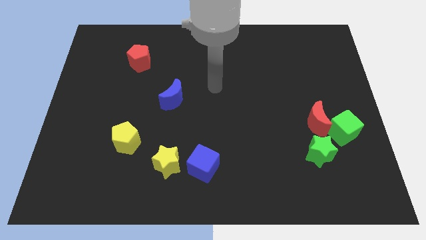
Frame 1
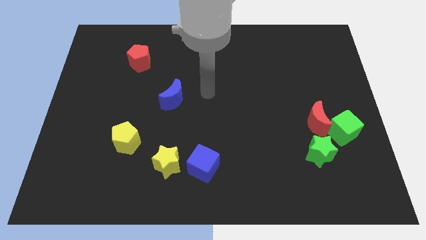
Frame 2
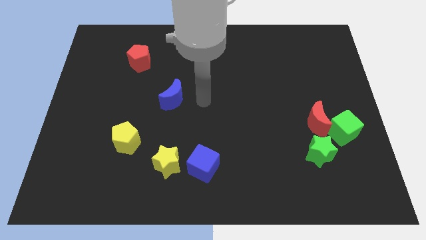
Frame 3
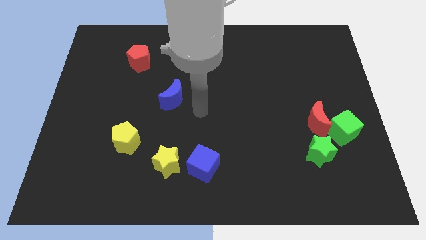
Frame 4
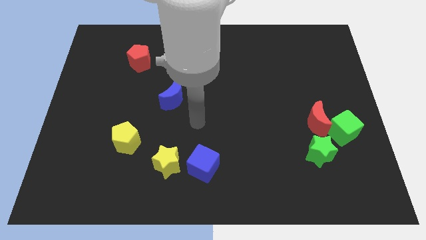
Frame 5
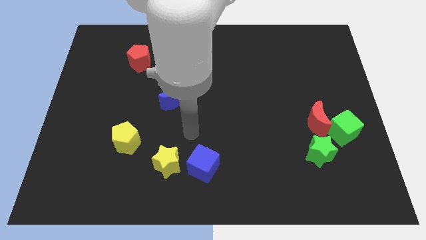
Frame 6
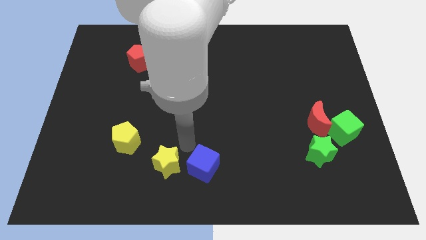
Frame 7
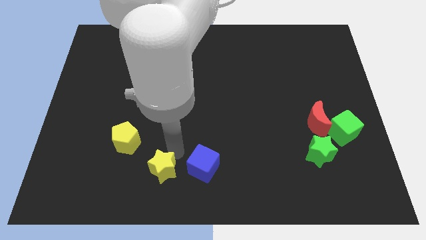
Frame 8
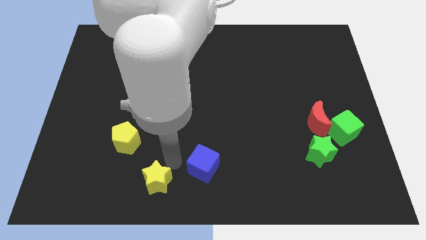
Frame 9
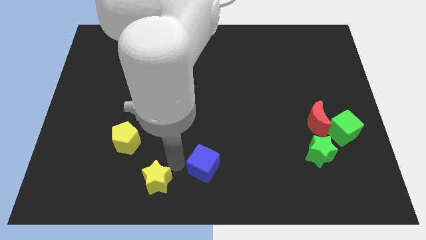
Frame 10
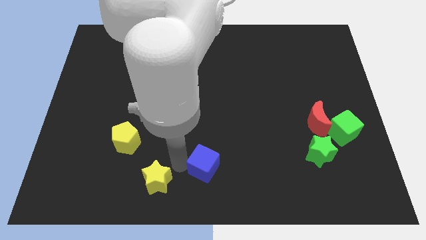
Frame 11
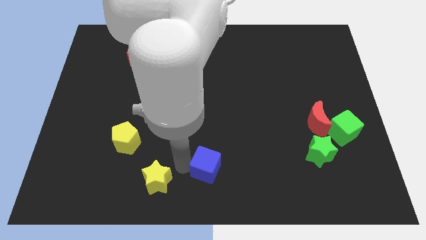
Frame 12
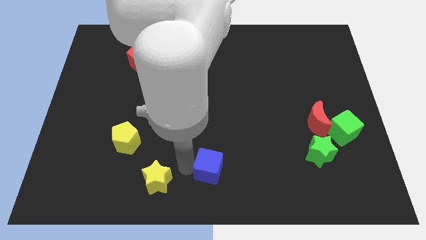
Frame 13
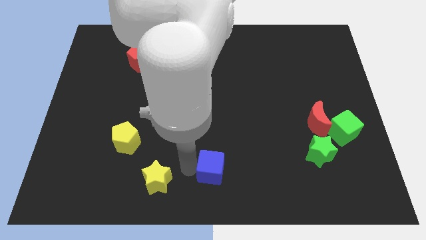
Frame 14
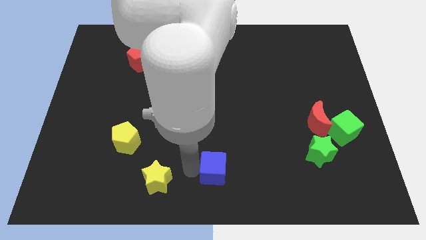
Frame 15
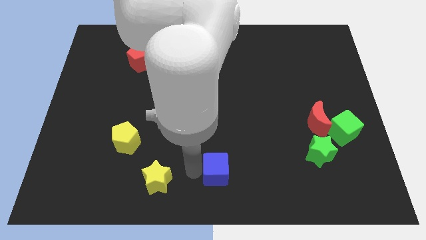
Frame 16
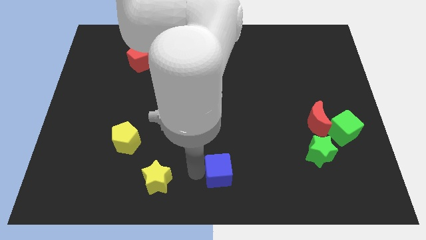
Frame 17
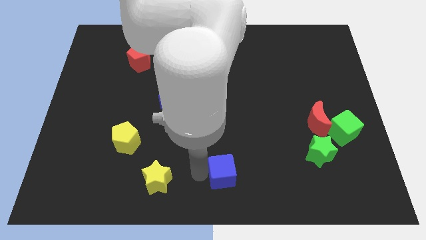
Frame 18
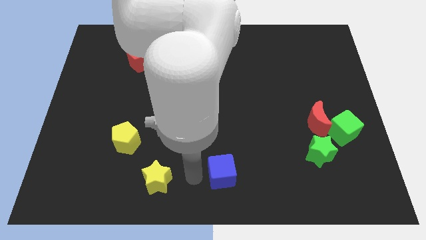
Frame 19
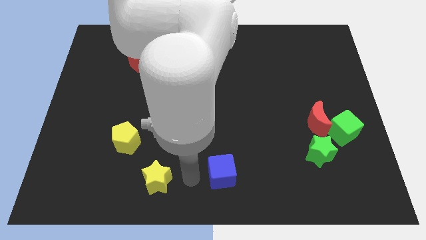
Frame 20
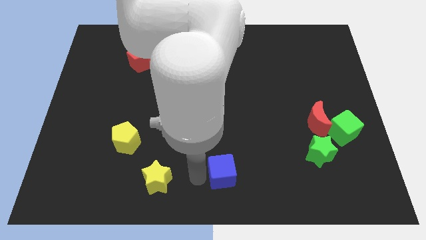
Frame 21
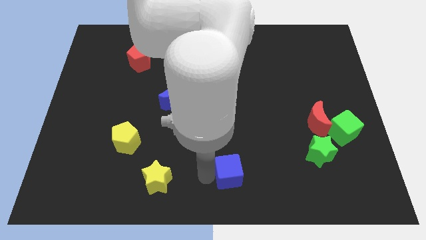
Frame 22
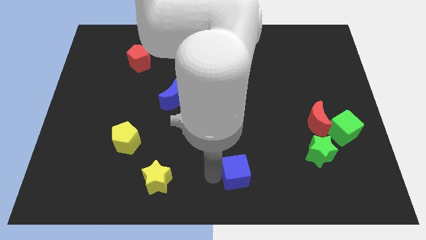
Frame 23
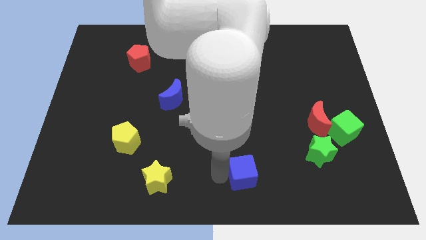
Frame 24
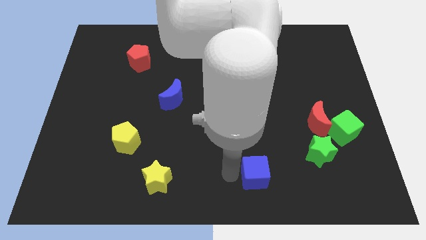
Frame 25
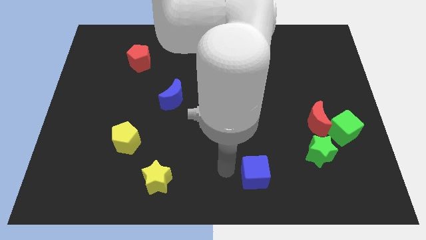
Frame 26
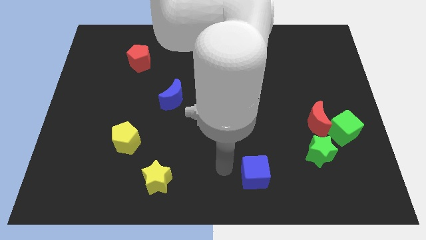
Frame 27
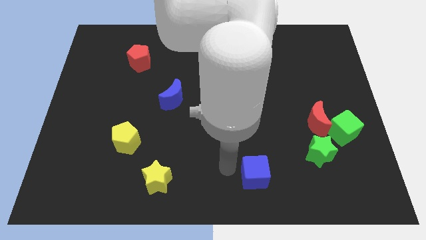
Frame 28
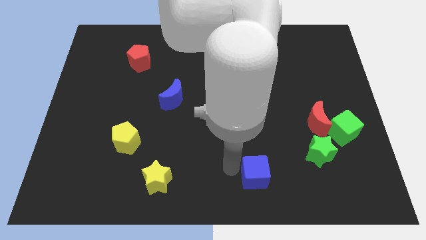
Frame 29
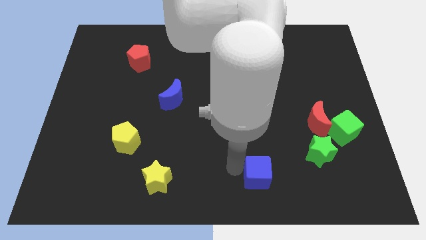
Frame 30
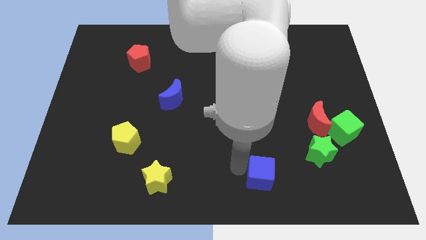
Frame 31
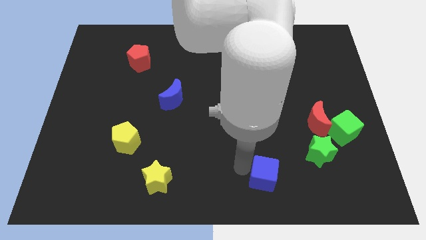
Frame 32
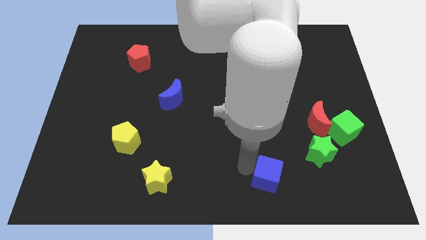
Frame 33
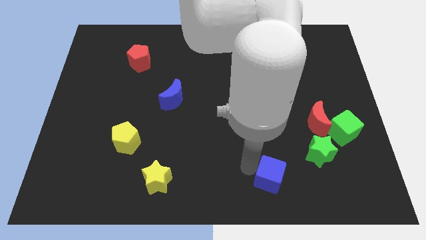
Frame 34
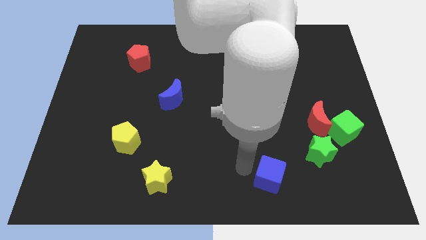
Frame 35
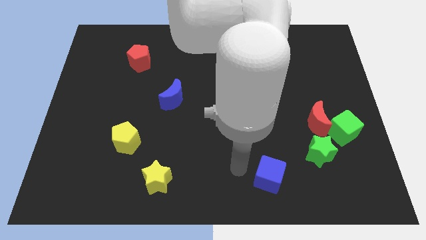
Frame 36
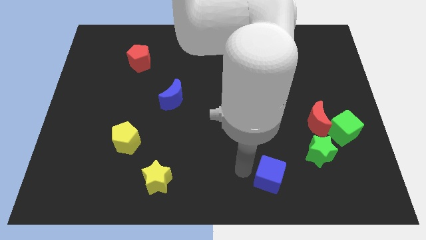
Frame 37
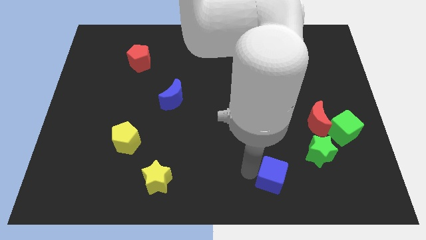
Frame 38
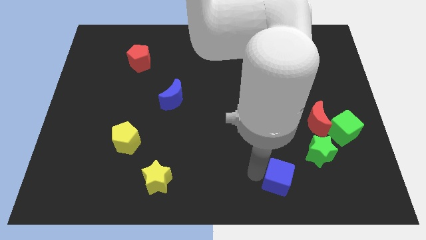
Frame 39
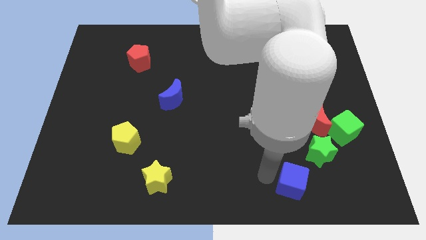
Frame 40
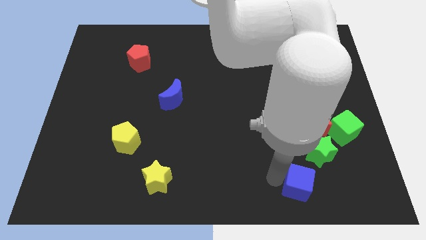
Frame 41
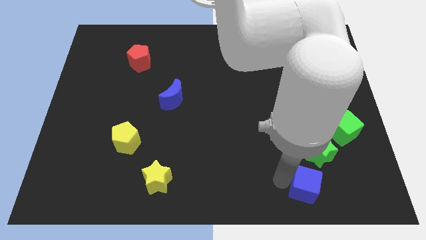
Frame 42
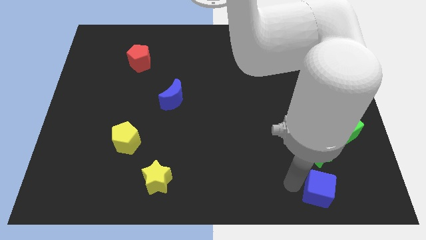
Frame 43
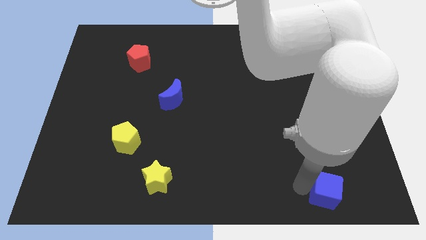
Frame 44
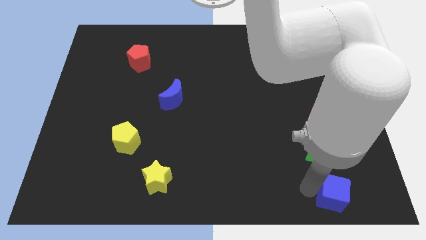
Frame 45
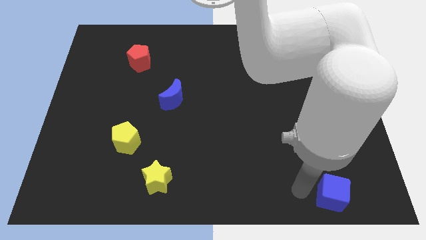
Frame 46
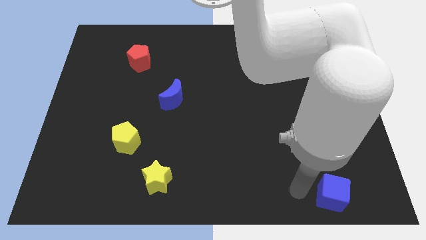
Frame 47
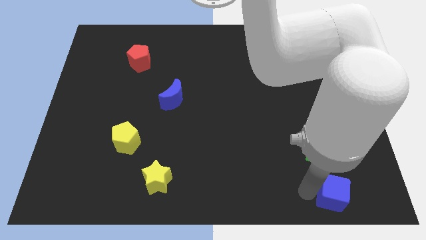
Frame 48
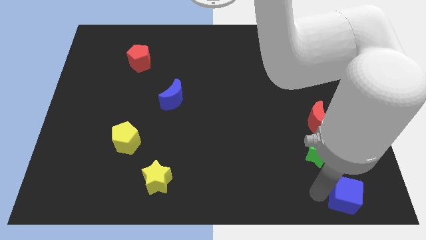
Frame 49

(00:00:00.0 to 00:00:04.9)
slide the blue cube to the bottom right of the board

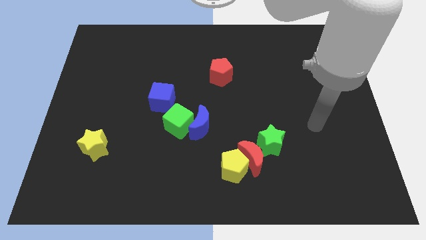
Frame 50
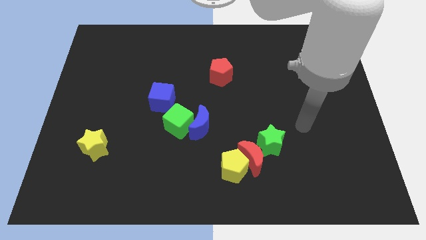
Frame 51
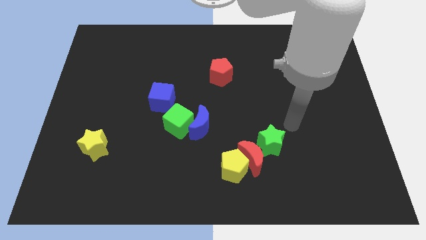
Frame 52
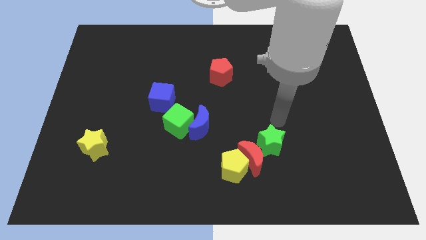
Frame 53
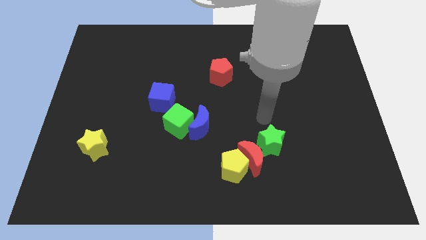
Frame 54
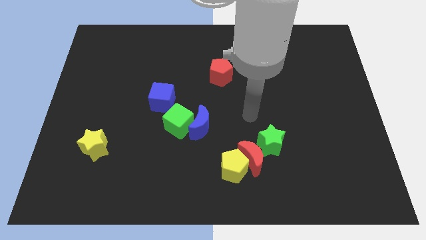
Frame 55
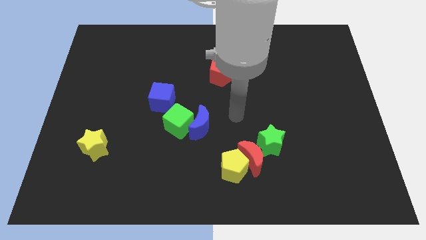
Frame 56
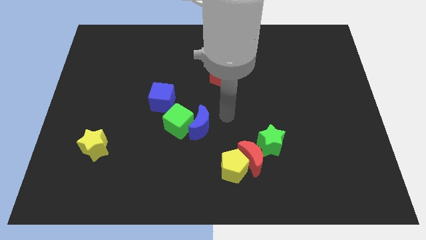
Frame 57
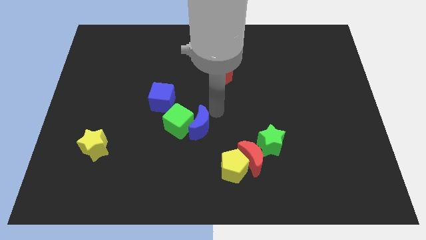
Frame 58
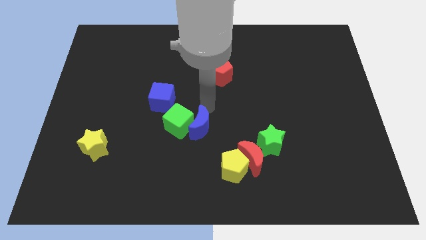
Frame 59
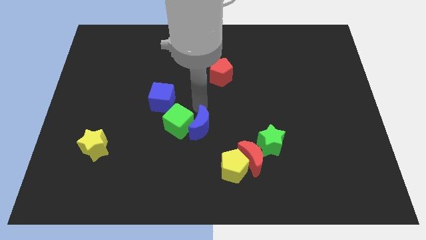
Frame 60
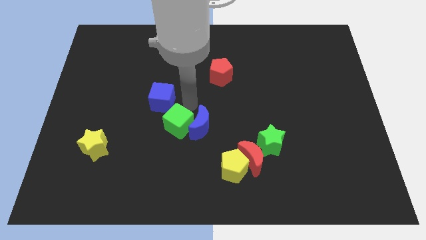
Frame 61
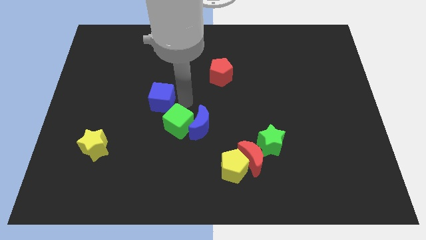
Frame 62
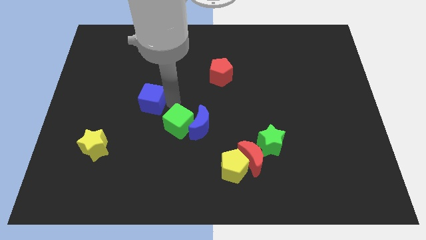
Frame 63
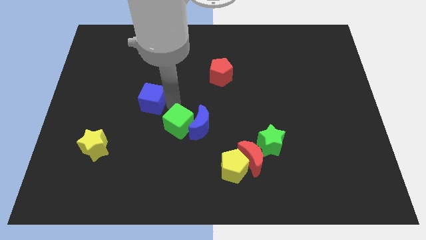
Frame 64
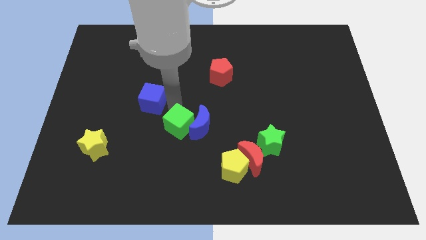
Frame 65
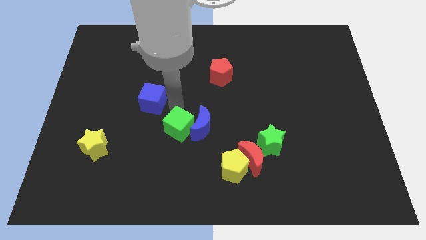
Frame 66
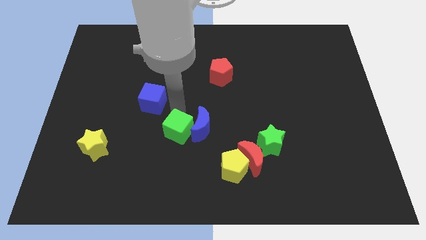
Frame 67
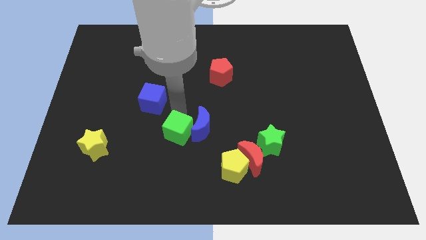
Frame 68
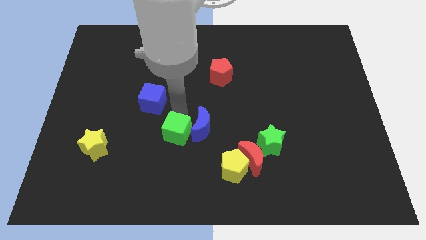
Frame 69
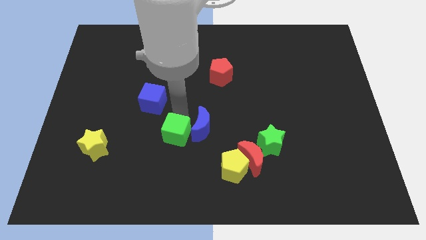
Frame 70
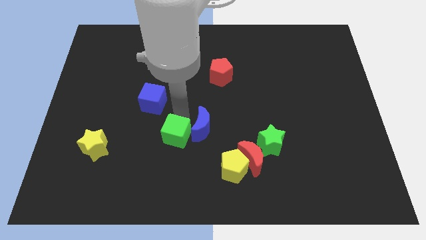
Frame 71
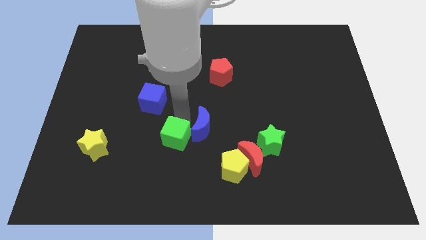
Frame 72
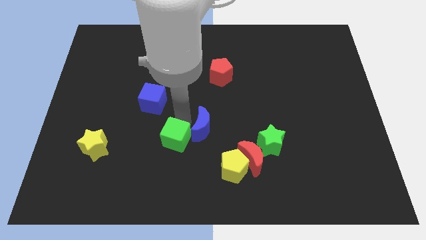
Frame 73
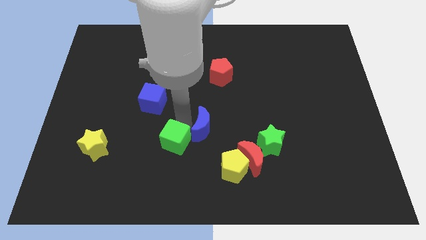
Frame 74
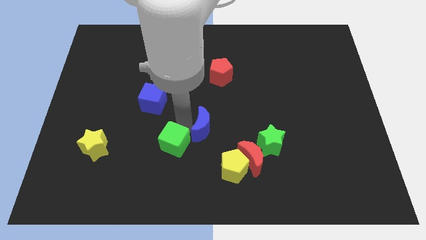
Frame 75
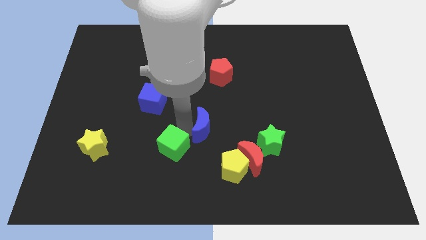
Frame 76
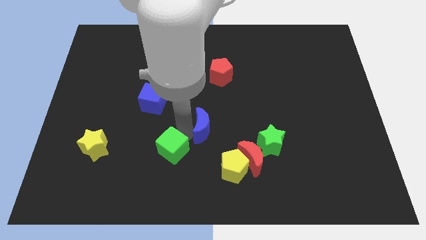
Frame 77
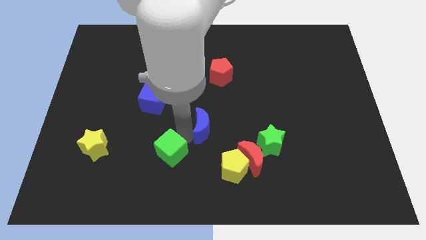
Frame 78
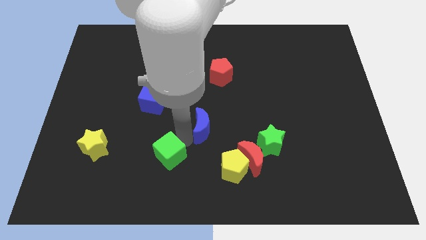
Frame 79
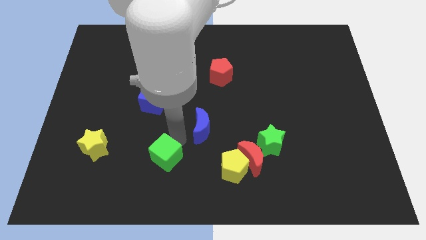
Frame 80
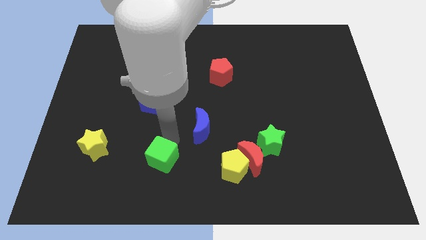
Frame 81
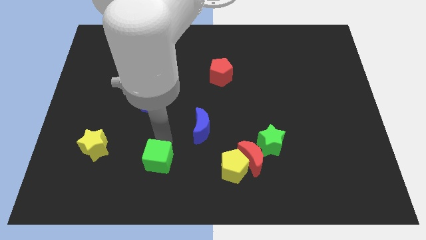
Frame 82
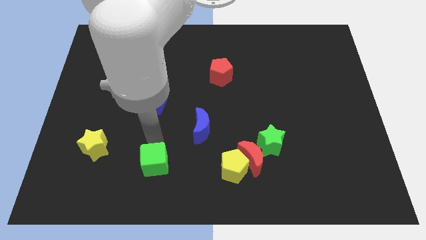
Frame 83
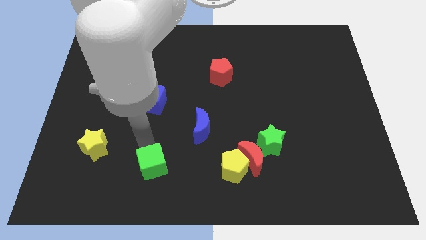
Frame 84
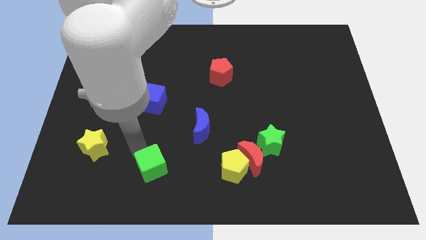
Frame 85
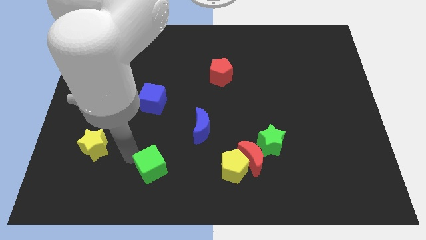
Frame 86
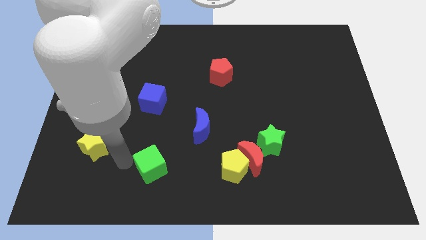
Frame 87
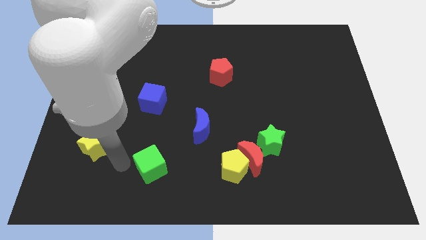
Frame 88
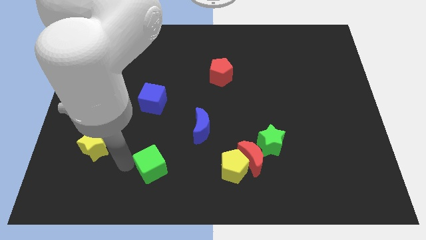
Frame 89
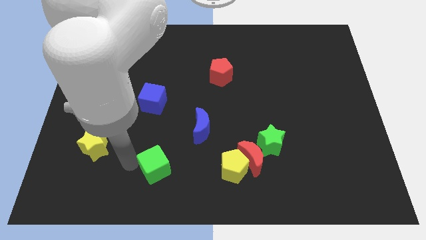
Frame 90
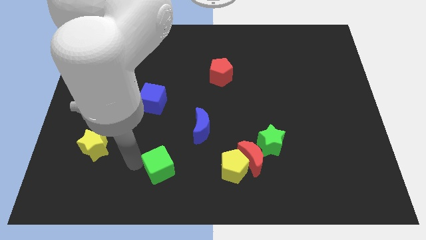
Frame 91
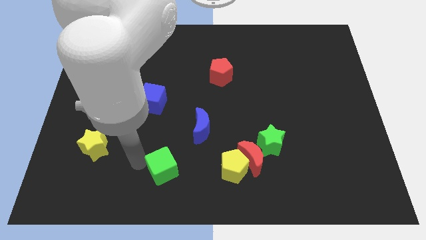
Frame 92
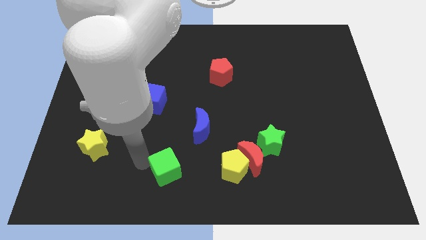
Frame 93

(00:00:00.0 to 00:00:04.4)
slide the green cube to the bottom
